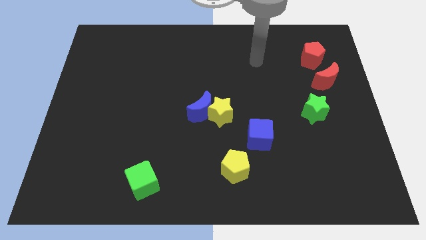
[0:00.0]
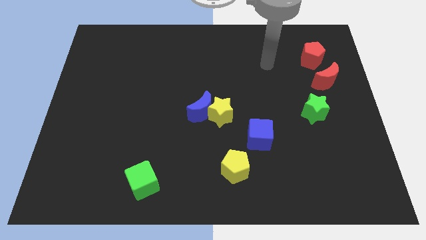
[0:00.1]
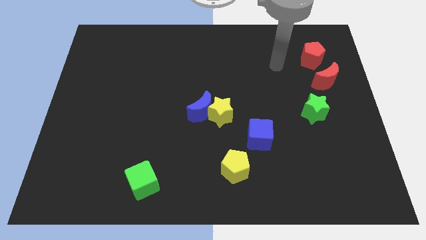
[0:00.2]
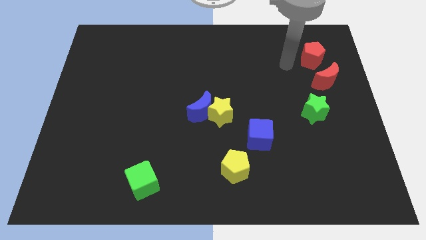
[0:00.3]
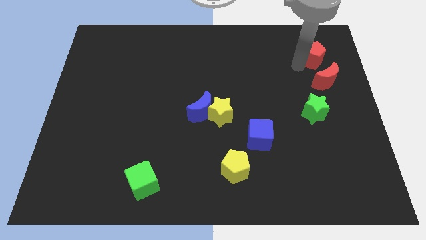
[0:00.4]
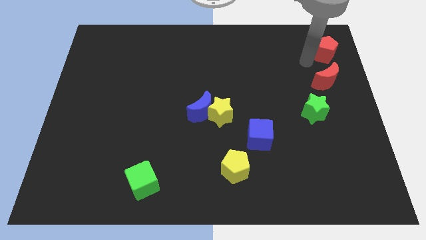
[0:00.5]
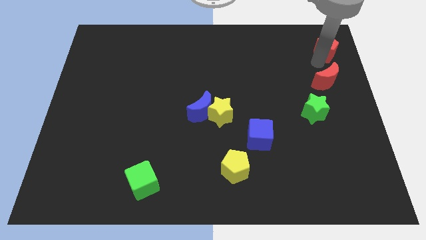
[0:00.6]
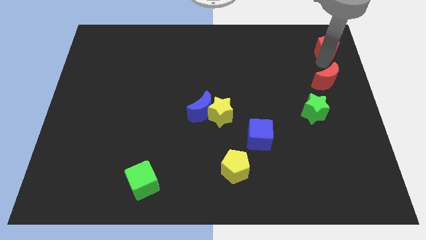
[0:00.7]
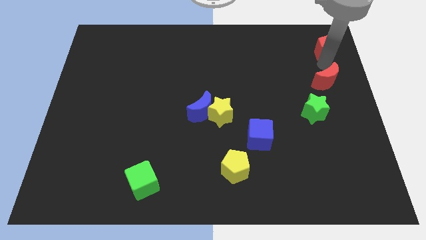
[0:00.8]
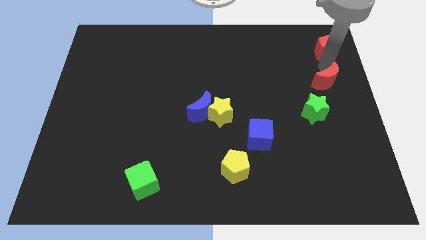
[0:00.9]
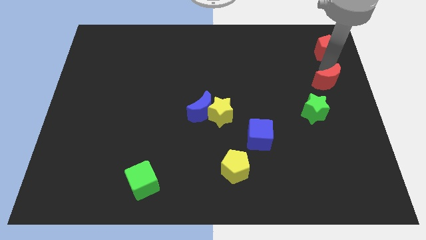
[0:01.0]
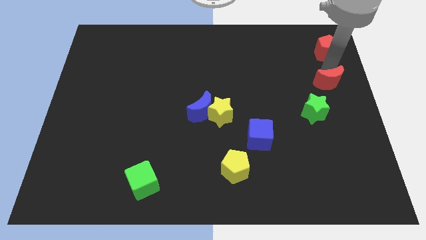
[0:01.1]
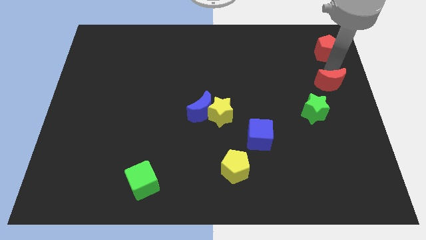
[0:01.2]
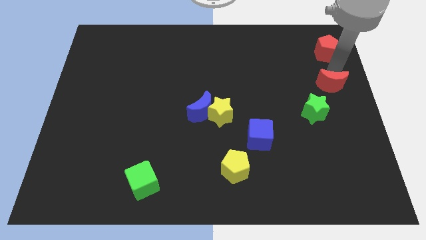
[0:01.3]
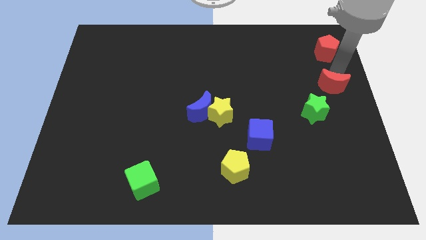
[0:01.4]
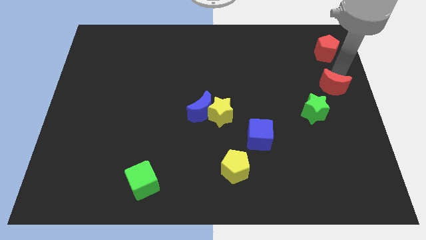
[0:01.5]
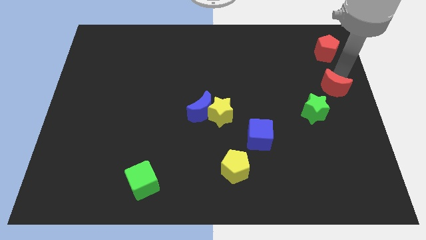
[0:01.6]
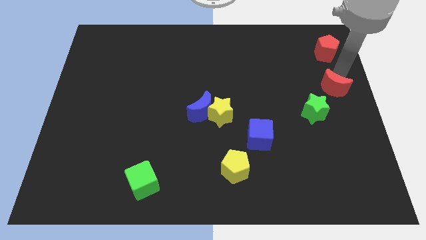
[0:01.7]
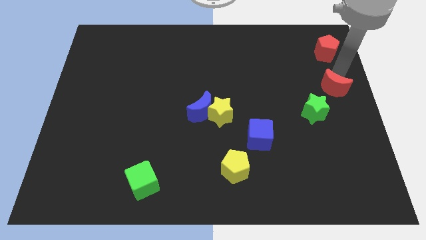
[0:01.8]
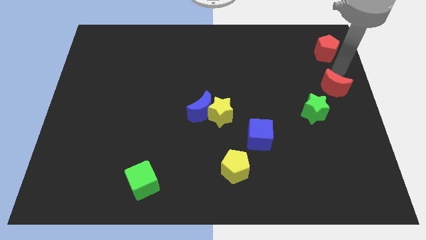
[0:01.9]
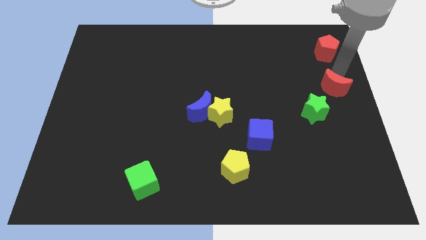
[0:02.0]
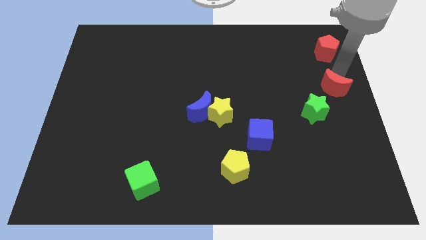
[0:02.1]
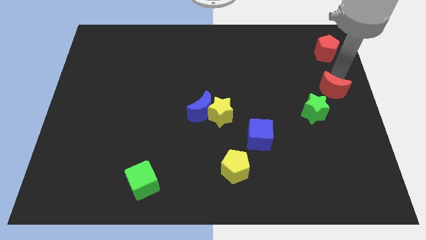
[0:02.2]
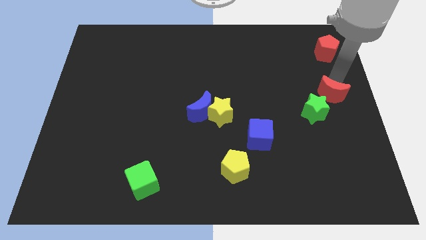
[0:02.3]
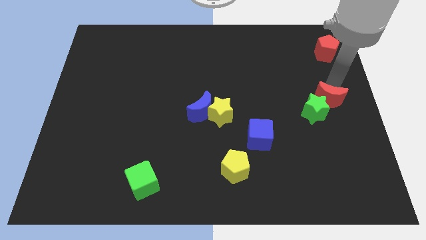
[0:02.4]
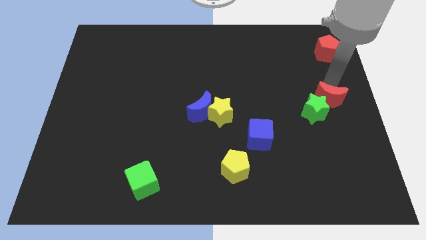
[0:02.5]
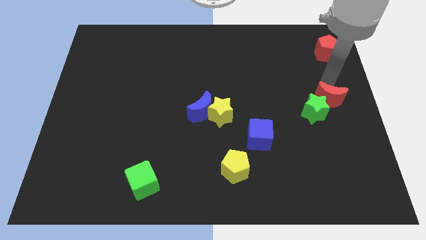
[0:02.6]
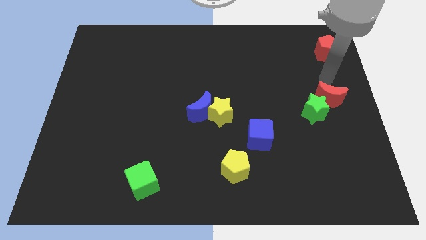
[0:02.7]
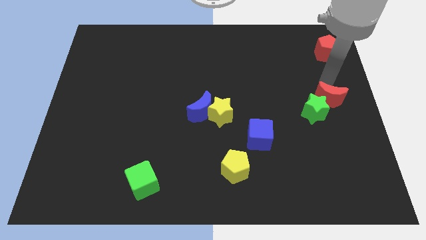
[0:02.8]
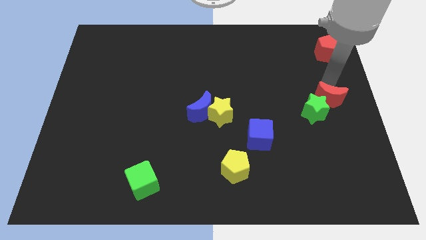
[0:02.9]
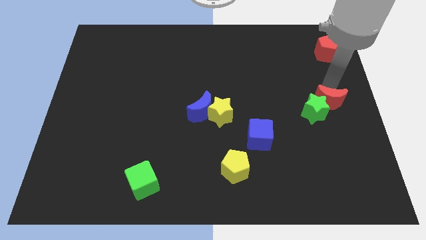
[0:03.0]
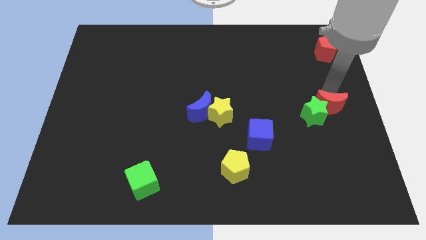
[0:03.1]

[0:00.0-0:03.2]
slightly slide the red moon downwards

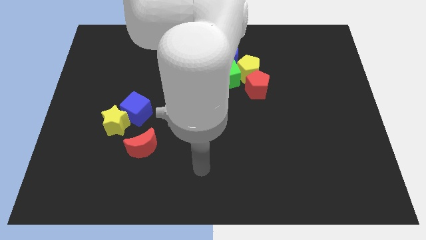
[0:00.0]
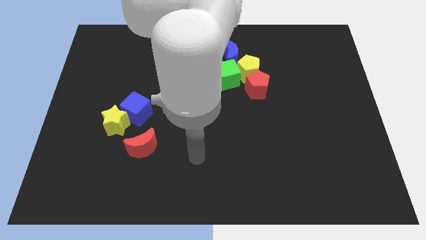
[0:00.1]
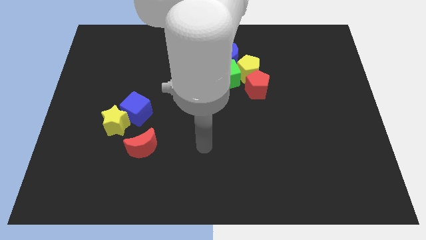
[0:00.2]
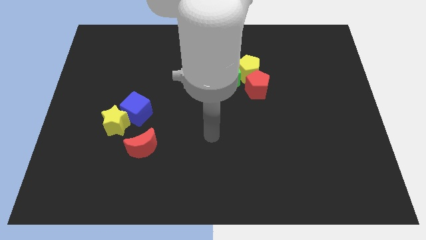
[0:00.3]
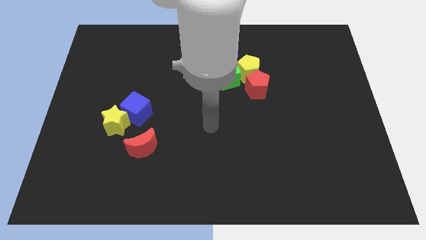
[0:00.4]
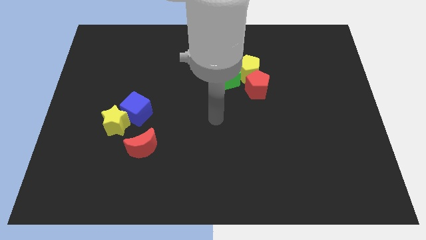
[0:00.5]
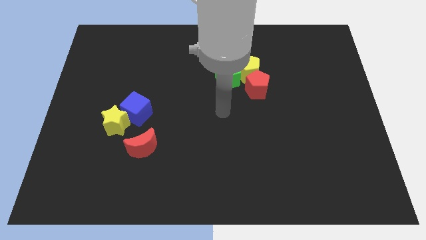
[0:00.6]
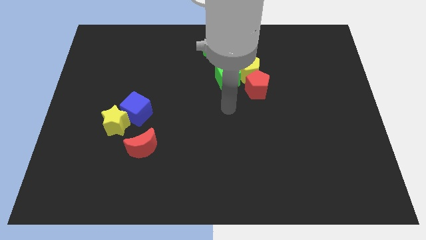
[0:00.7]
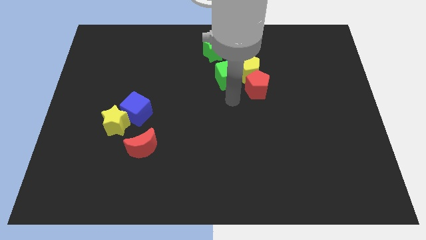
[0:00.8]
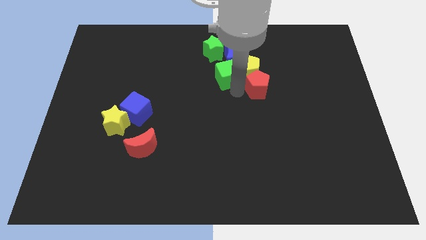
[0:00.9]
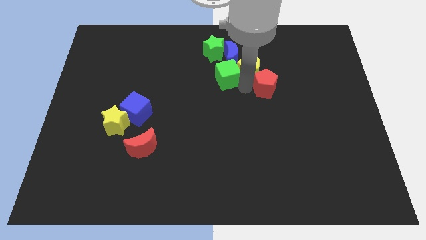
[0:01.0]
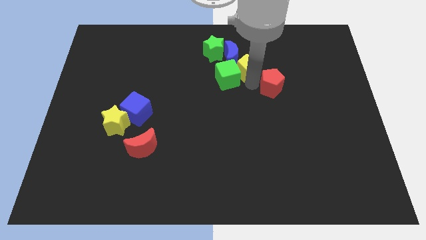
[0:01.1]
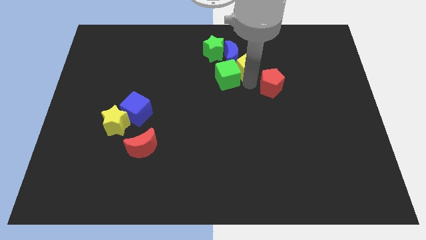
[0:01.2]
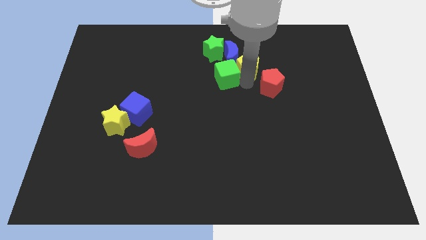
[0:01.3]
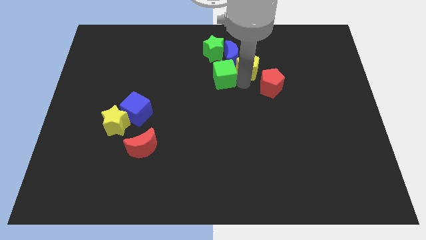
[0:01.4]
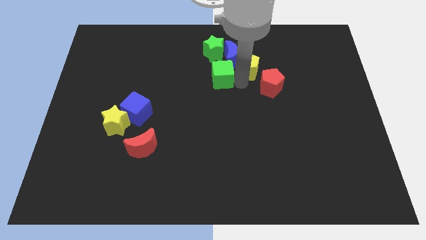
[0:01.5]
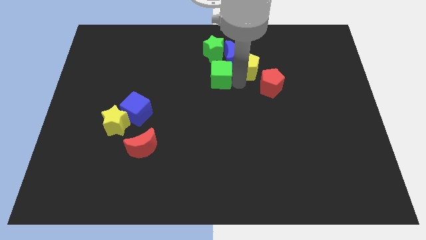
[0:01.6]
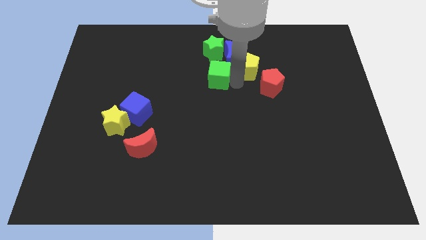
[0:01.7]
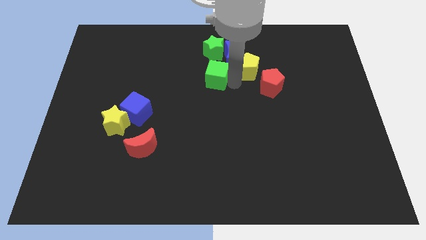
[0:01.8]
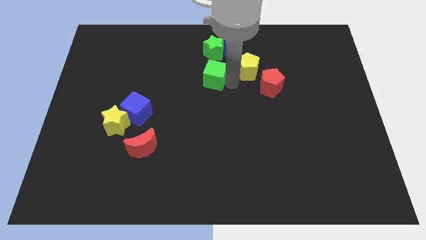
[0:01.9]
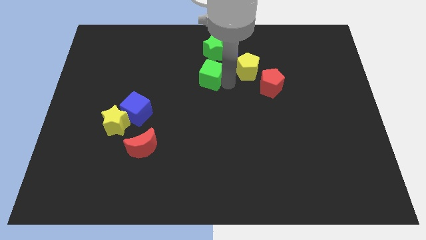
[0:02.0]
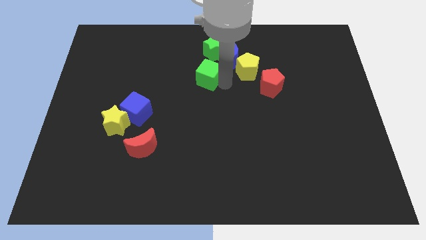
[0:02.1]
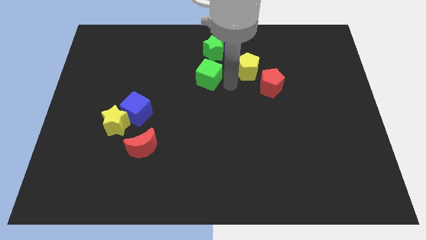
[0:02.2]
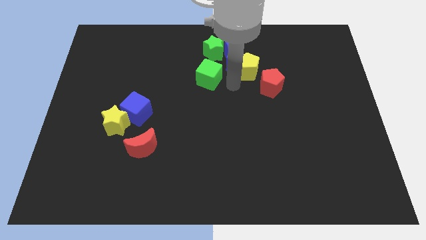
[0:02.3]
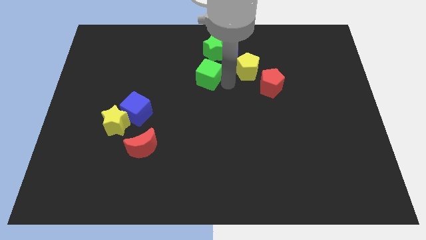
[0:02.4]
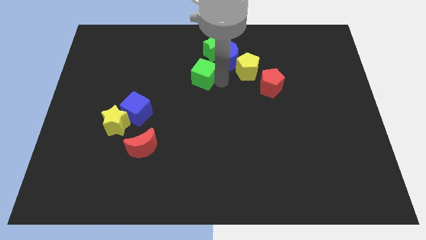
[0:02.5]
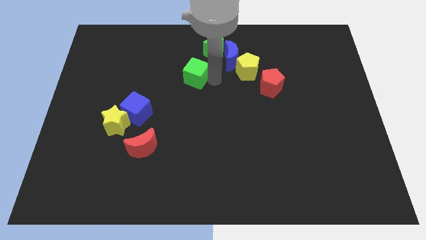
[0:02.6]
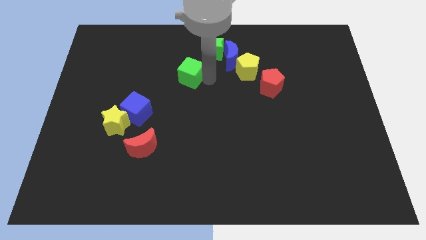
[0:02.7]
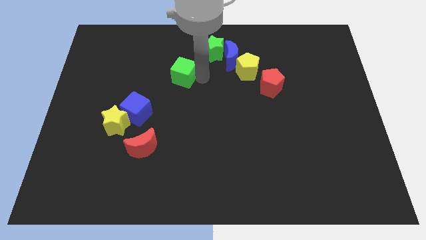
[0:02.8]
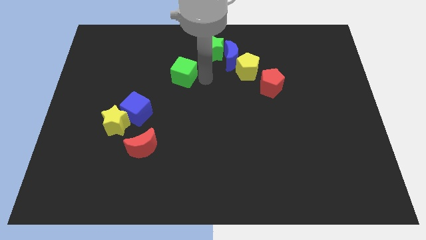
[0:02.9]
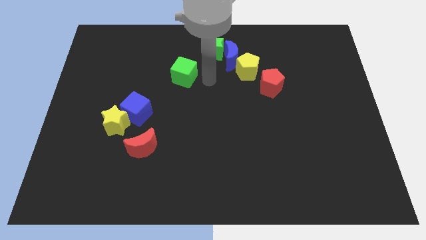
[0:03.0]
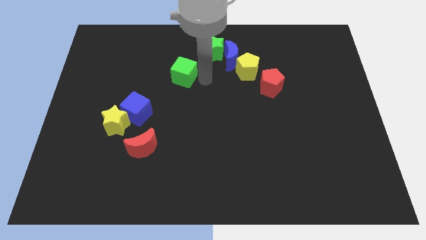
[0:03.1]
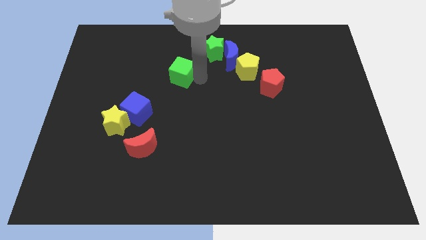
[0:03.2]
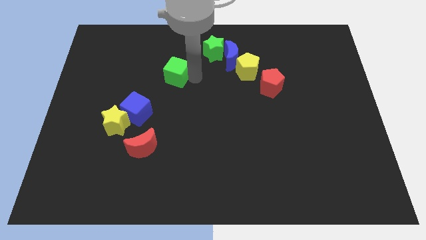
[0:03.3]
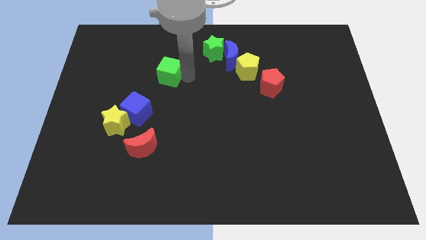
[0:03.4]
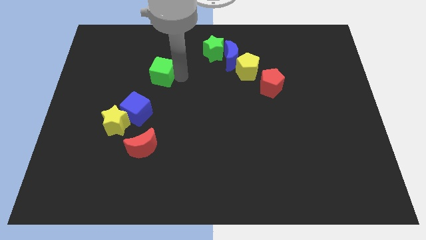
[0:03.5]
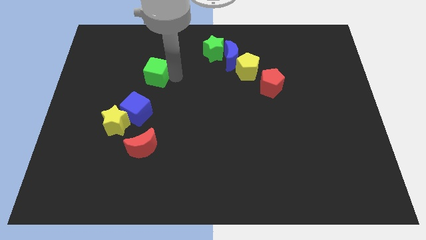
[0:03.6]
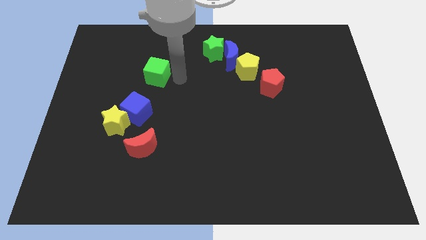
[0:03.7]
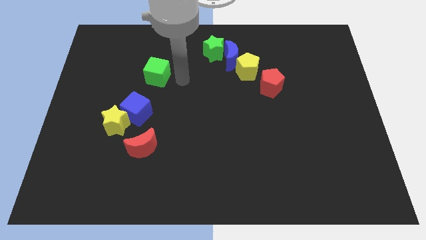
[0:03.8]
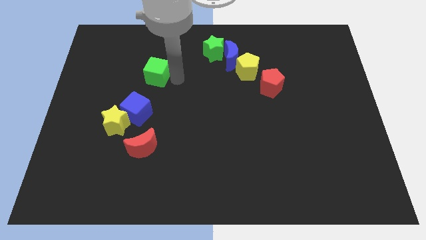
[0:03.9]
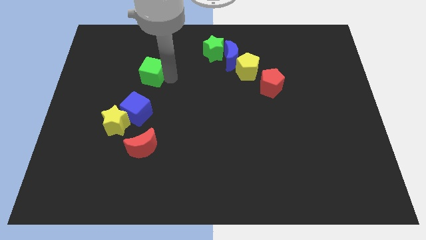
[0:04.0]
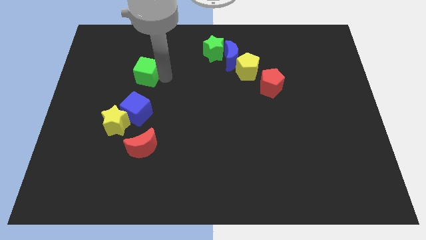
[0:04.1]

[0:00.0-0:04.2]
move the green cube left

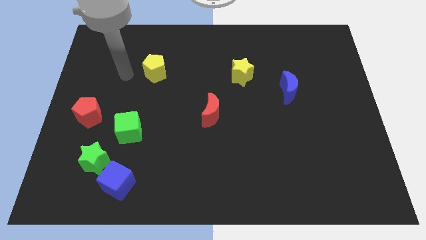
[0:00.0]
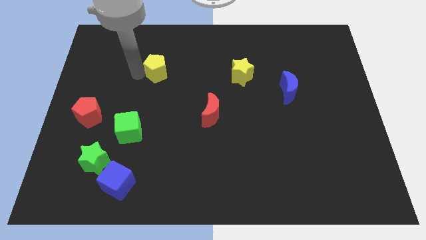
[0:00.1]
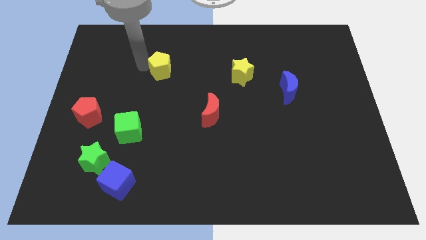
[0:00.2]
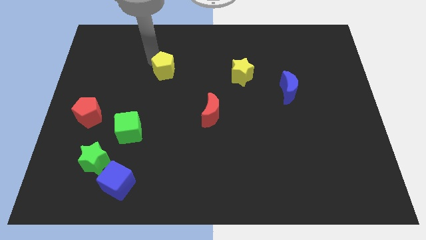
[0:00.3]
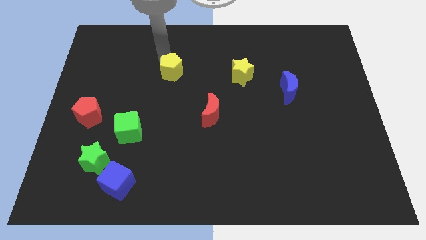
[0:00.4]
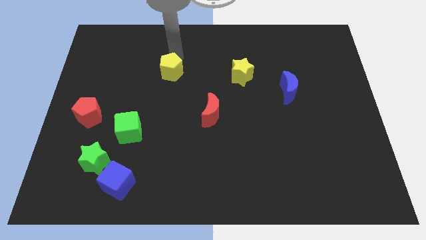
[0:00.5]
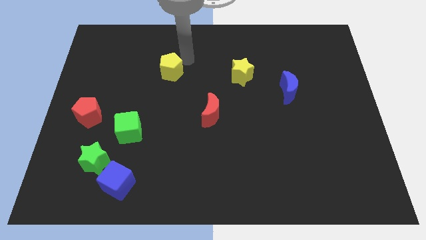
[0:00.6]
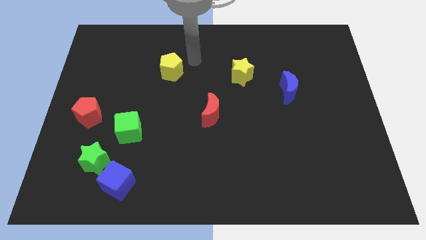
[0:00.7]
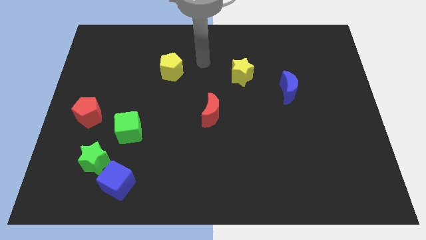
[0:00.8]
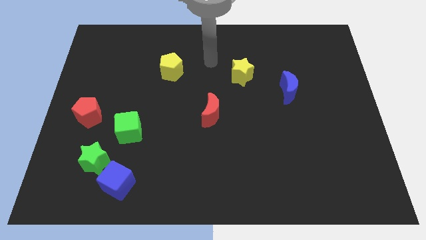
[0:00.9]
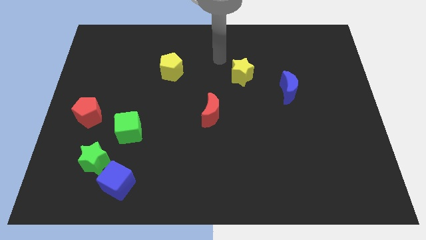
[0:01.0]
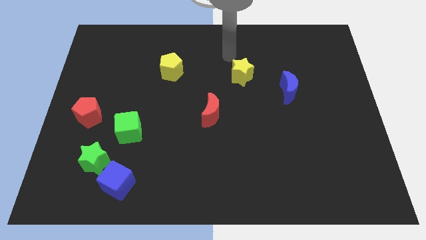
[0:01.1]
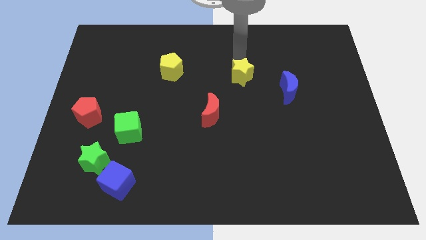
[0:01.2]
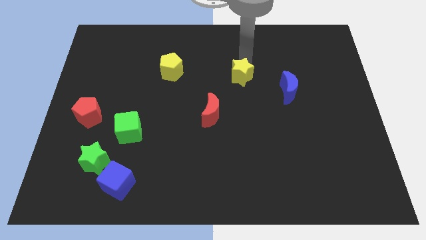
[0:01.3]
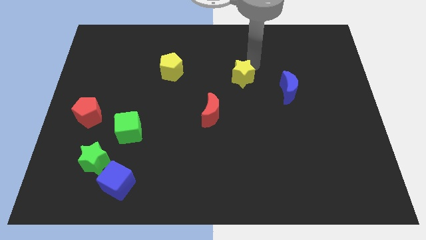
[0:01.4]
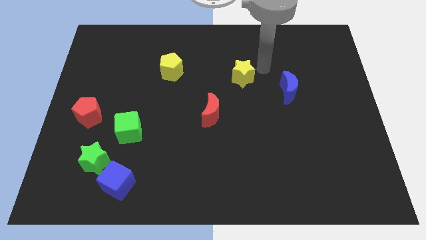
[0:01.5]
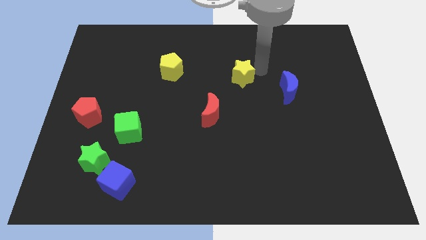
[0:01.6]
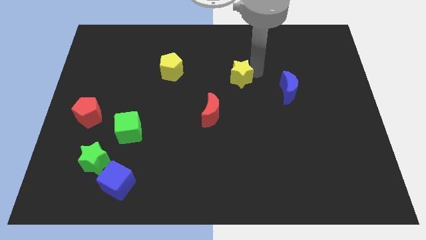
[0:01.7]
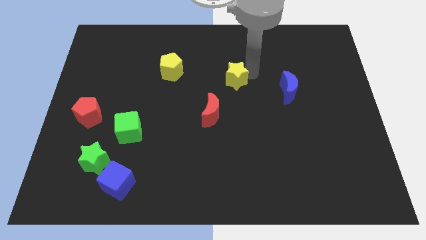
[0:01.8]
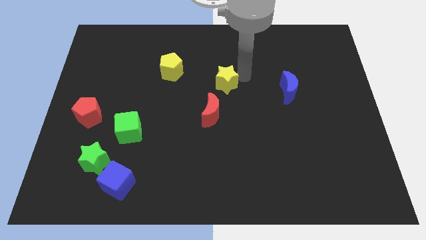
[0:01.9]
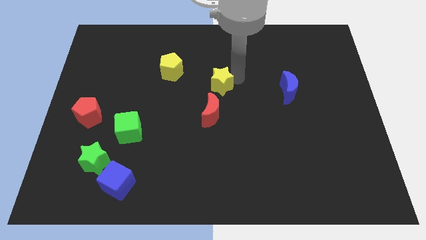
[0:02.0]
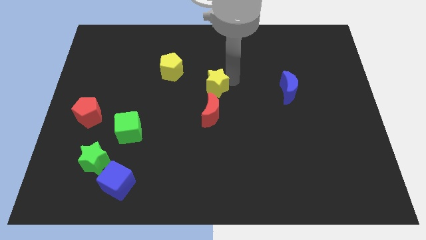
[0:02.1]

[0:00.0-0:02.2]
slide the yellow star a little bit down and to the left
